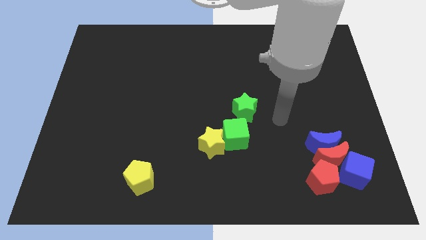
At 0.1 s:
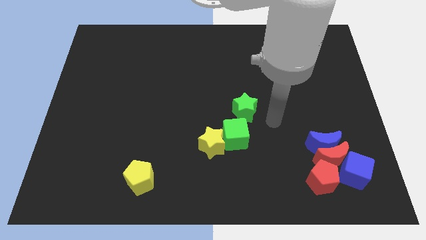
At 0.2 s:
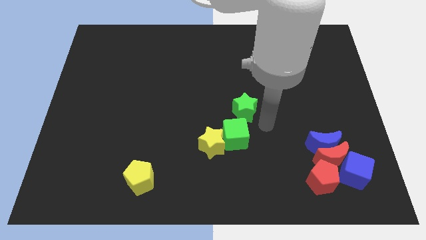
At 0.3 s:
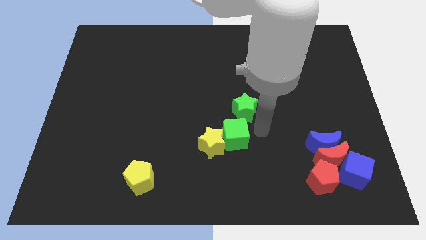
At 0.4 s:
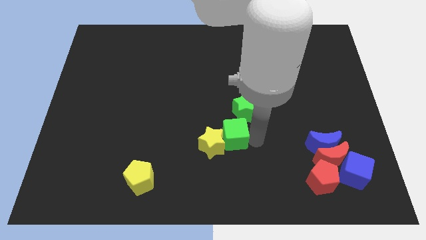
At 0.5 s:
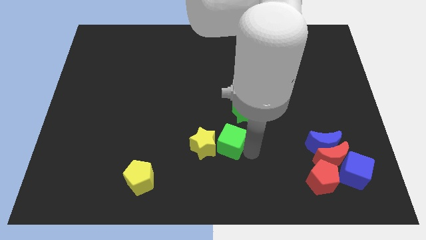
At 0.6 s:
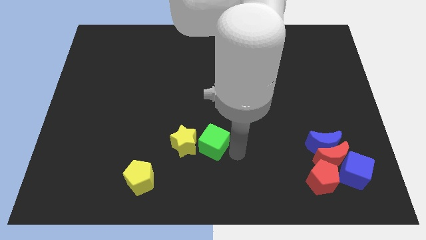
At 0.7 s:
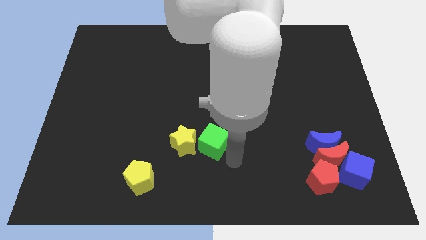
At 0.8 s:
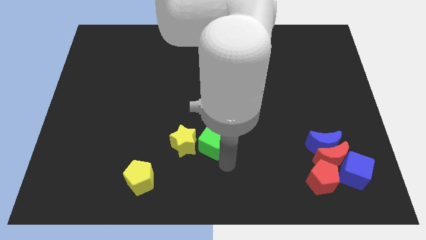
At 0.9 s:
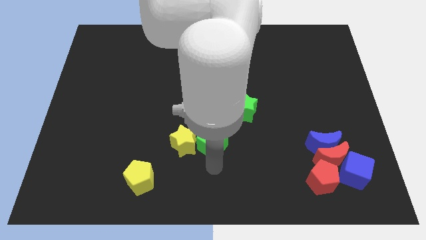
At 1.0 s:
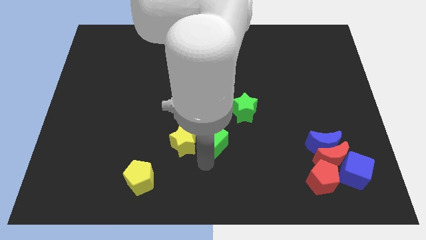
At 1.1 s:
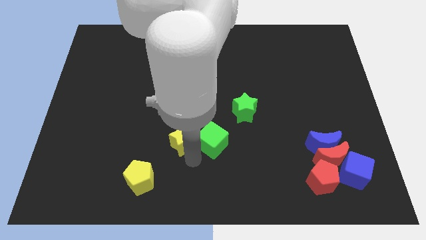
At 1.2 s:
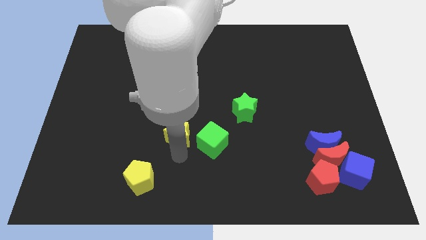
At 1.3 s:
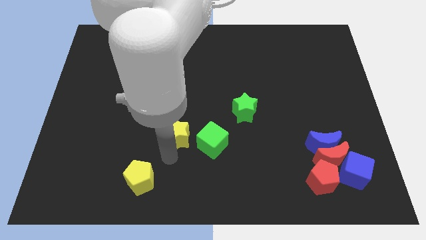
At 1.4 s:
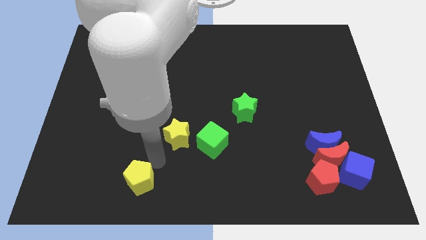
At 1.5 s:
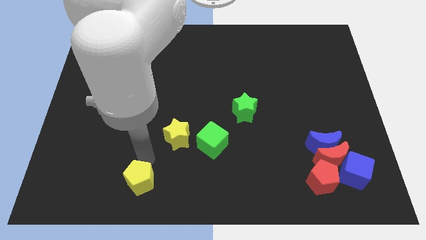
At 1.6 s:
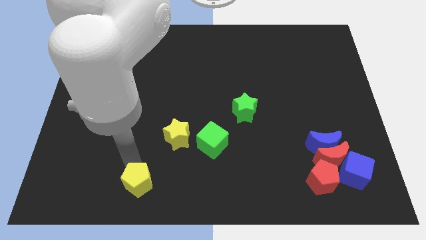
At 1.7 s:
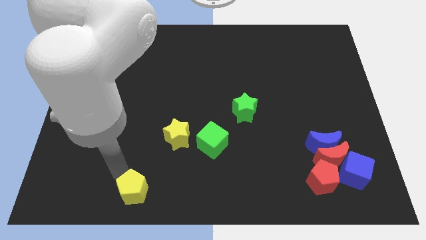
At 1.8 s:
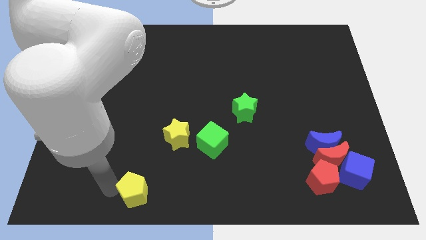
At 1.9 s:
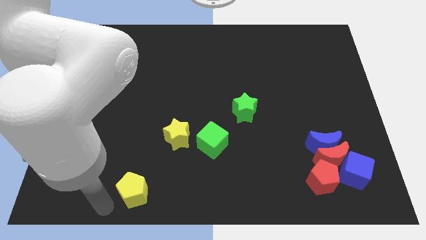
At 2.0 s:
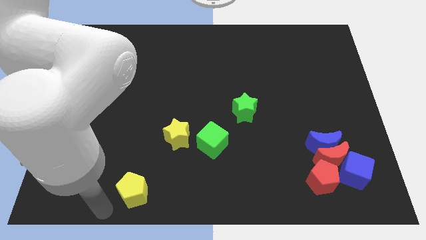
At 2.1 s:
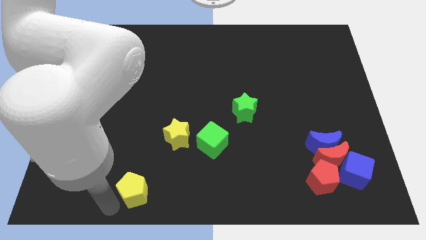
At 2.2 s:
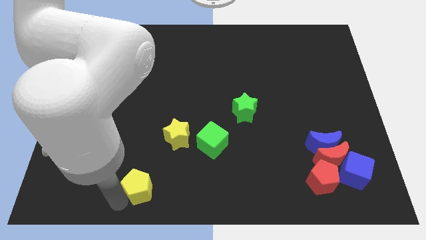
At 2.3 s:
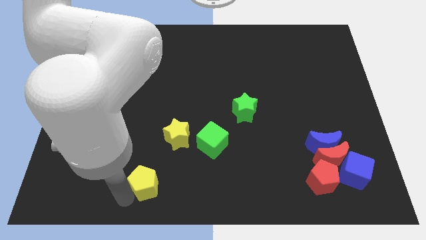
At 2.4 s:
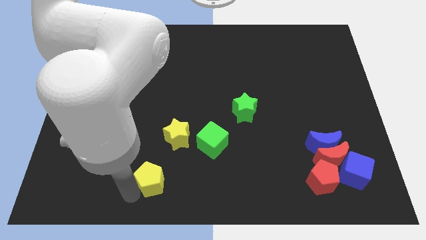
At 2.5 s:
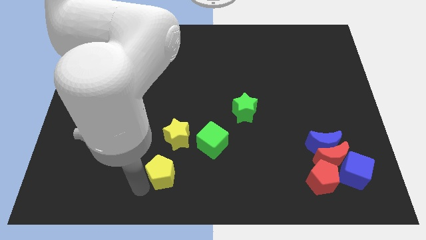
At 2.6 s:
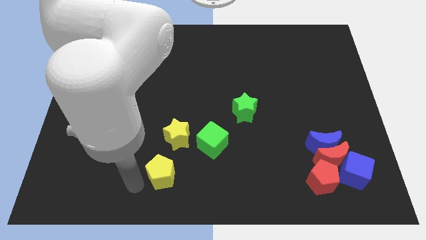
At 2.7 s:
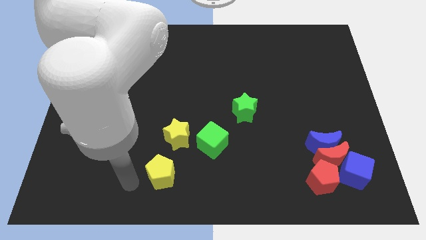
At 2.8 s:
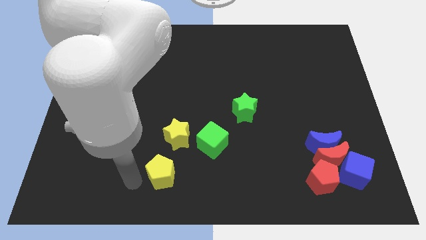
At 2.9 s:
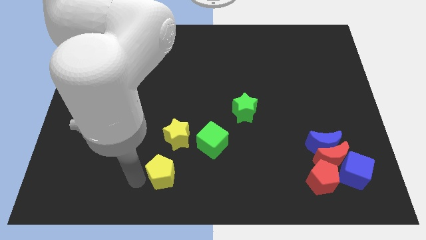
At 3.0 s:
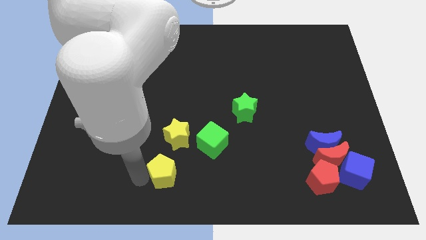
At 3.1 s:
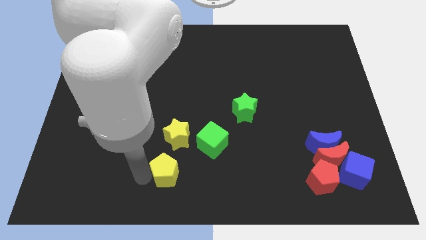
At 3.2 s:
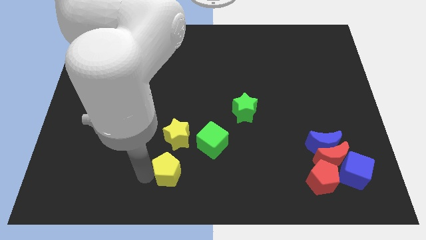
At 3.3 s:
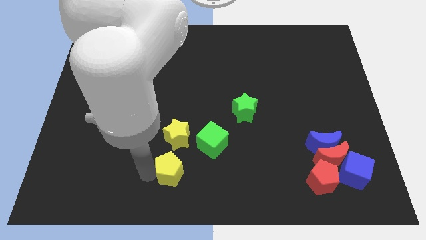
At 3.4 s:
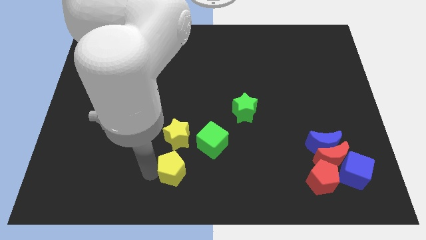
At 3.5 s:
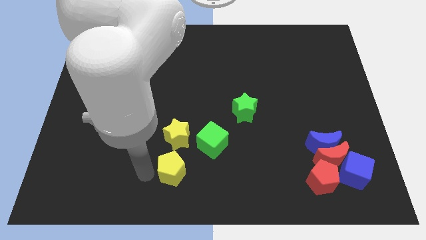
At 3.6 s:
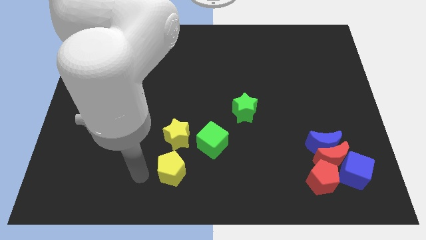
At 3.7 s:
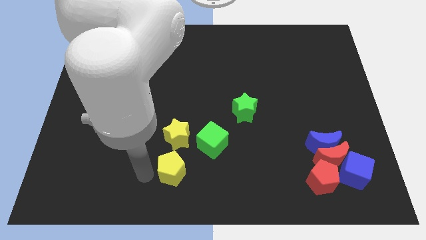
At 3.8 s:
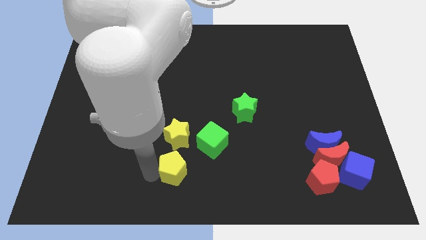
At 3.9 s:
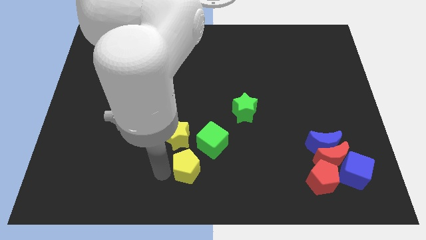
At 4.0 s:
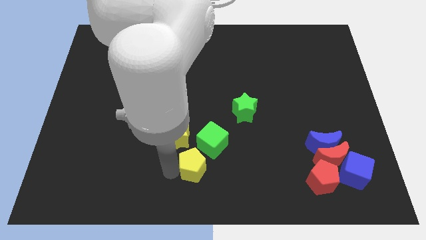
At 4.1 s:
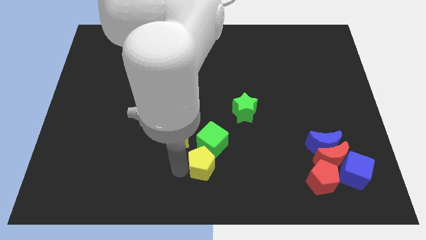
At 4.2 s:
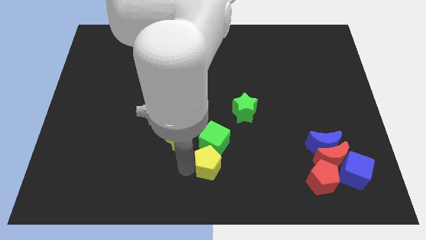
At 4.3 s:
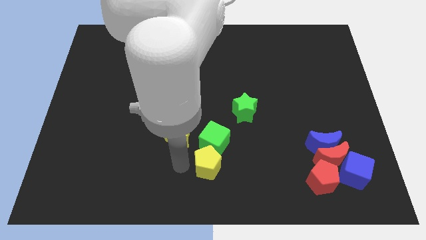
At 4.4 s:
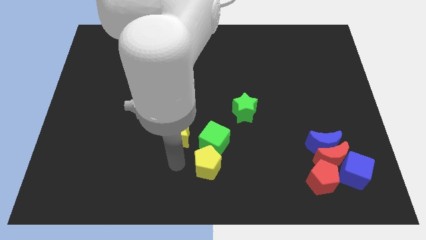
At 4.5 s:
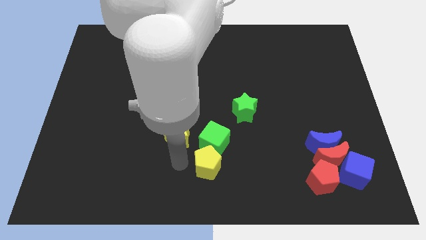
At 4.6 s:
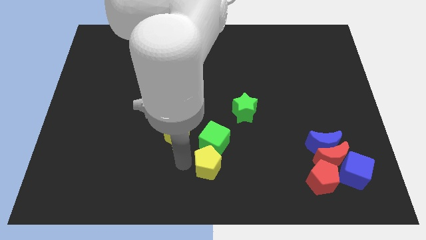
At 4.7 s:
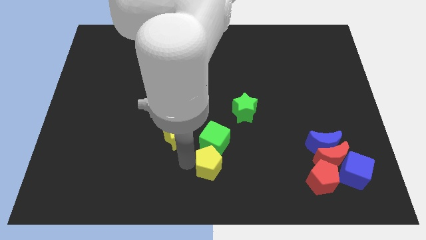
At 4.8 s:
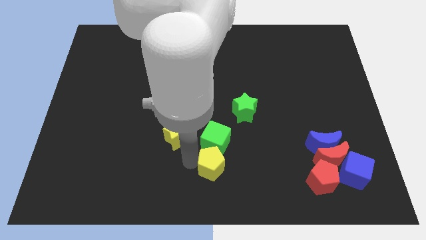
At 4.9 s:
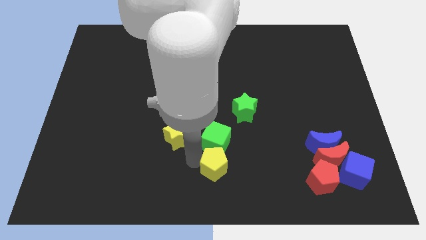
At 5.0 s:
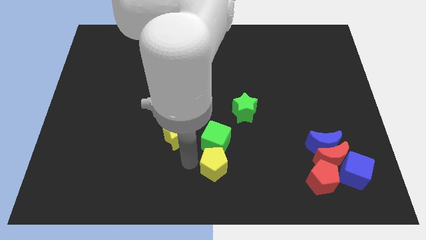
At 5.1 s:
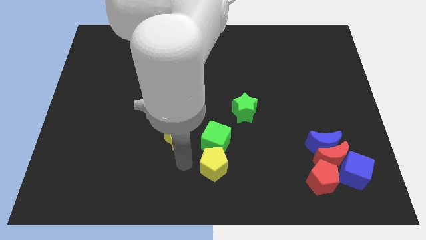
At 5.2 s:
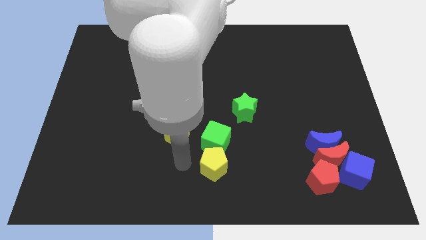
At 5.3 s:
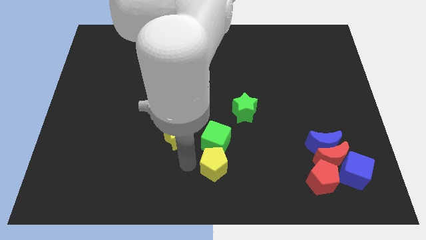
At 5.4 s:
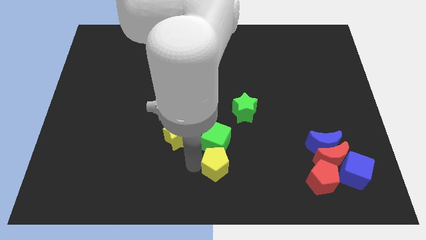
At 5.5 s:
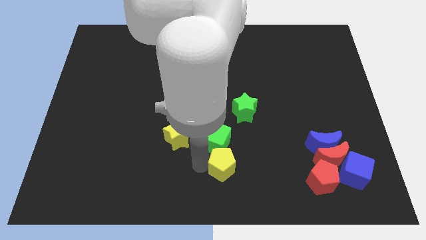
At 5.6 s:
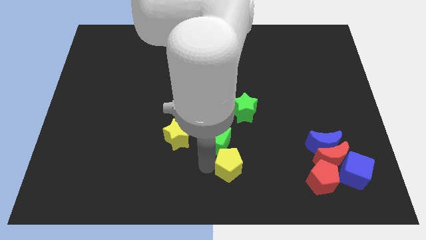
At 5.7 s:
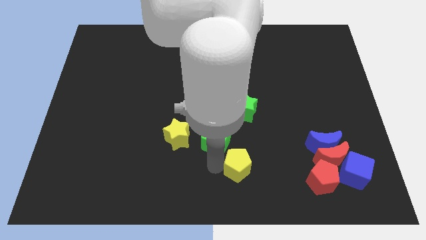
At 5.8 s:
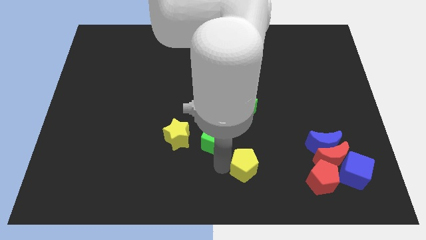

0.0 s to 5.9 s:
push the yellow pentagon to the right

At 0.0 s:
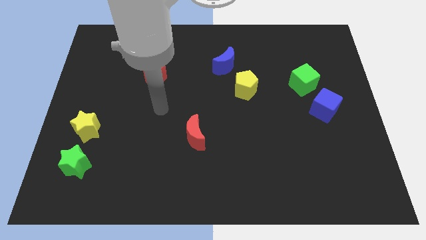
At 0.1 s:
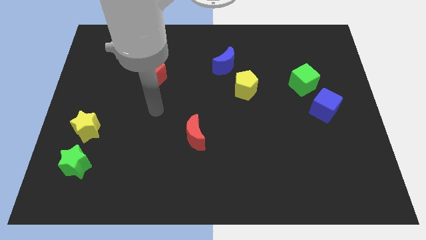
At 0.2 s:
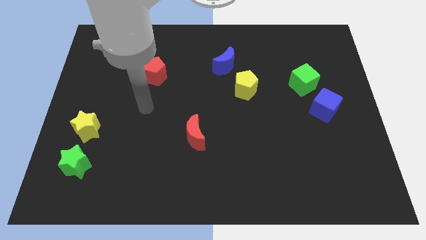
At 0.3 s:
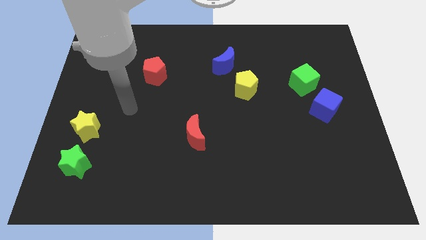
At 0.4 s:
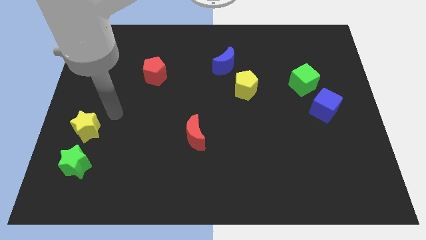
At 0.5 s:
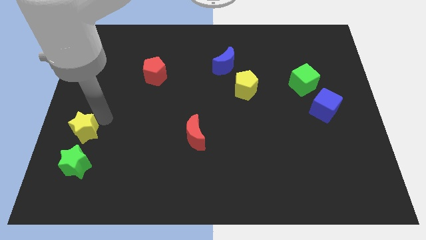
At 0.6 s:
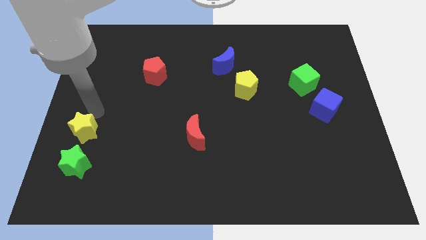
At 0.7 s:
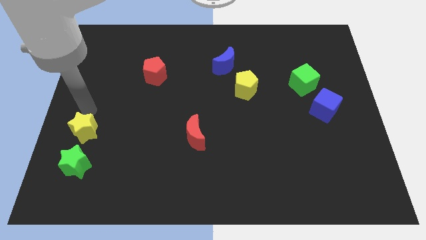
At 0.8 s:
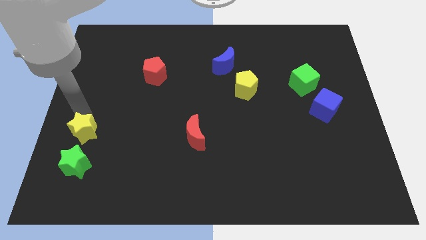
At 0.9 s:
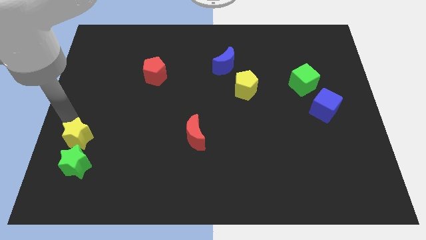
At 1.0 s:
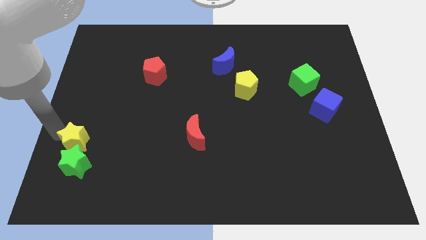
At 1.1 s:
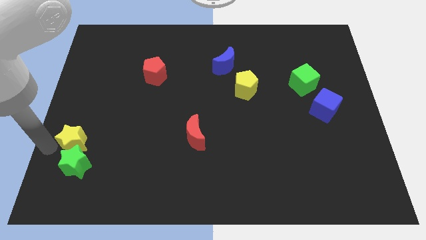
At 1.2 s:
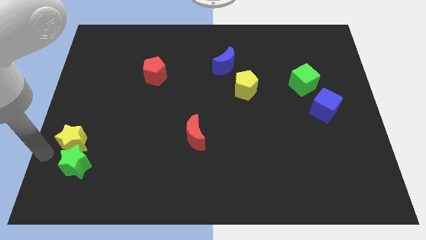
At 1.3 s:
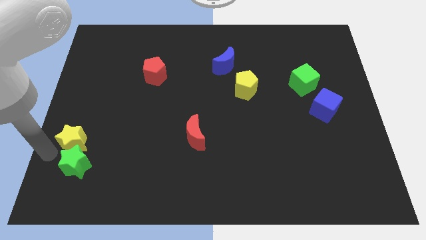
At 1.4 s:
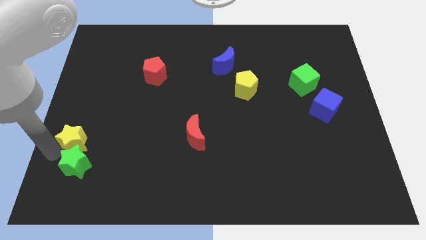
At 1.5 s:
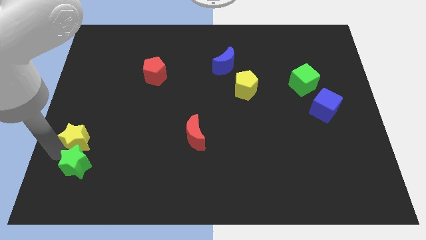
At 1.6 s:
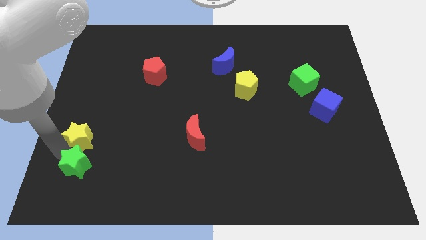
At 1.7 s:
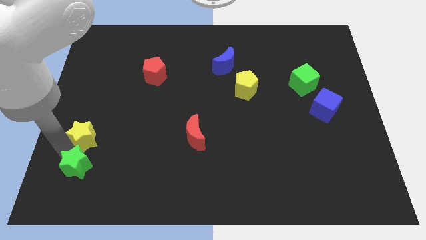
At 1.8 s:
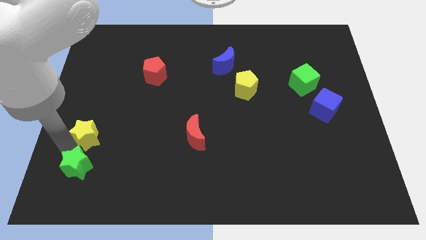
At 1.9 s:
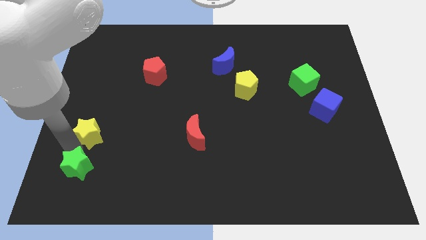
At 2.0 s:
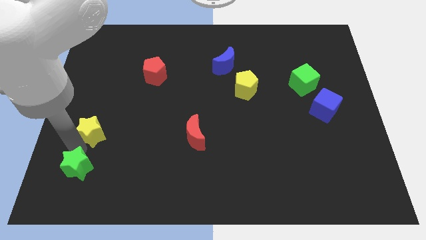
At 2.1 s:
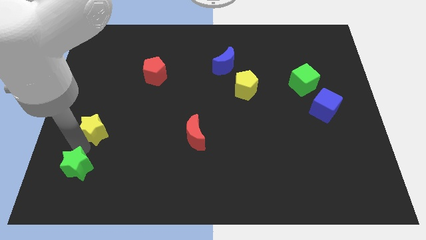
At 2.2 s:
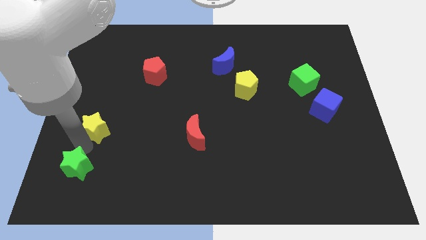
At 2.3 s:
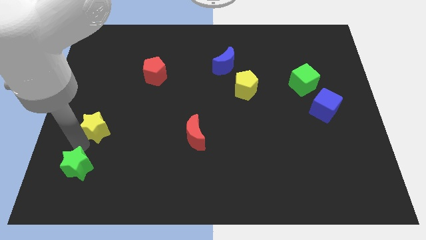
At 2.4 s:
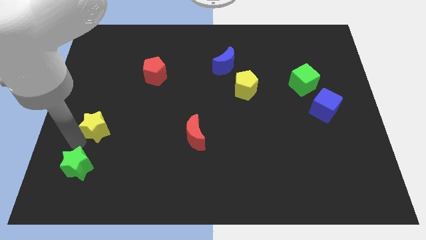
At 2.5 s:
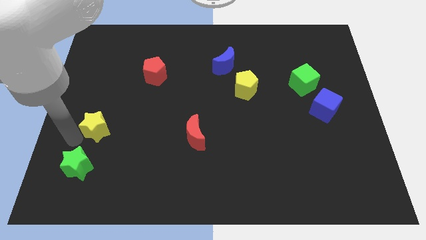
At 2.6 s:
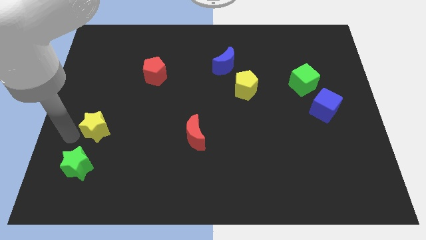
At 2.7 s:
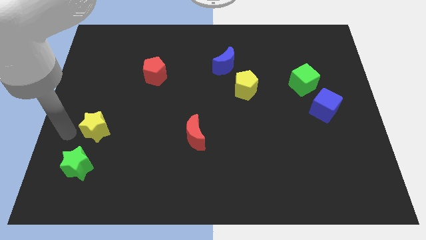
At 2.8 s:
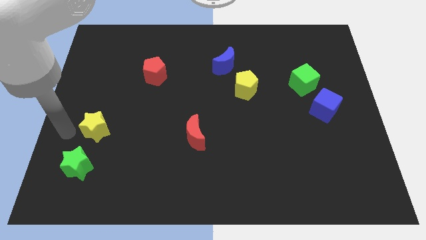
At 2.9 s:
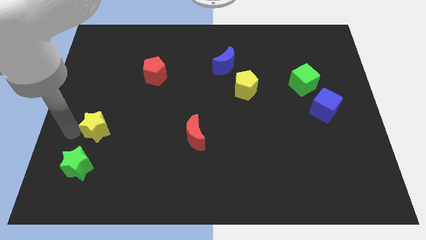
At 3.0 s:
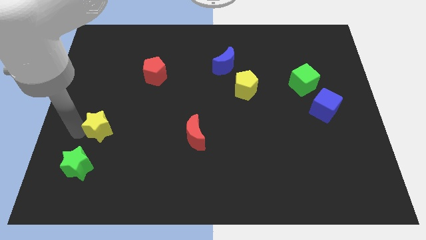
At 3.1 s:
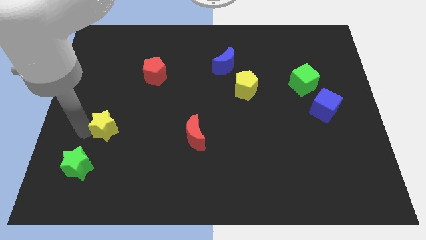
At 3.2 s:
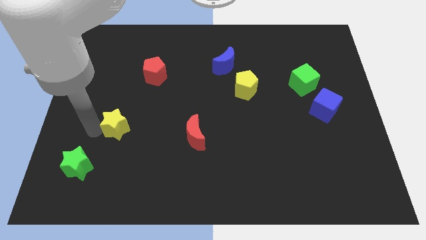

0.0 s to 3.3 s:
slide the yellow star right a bit
